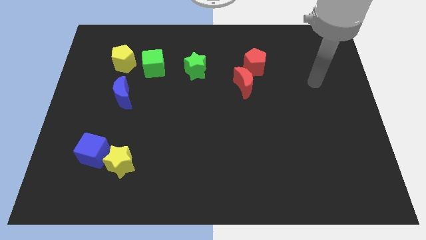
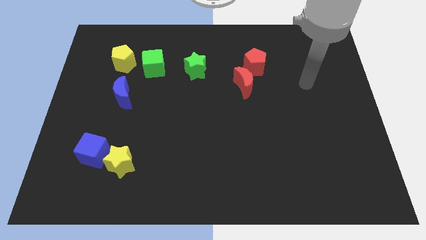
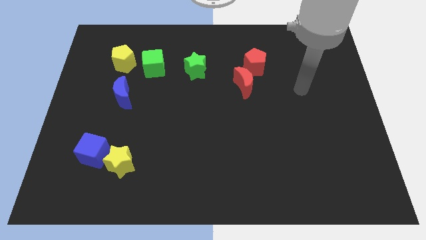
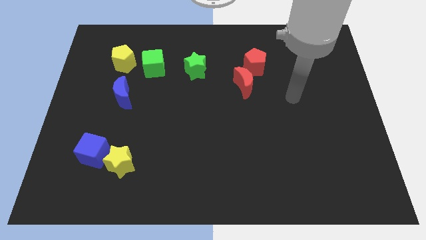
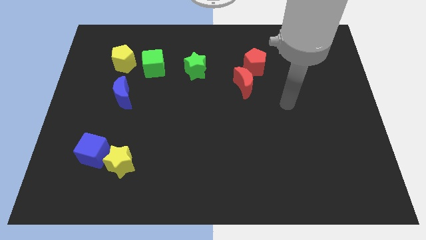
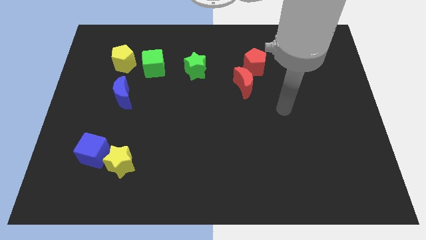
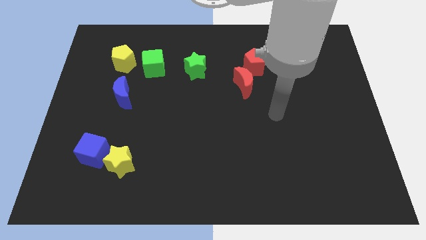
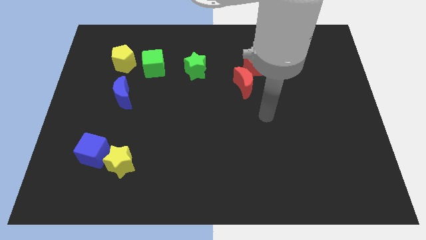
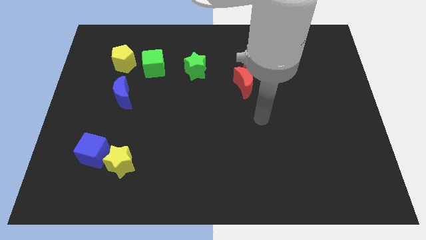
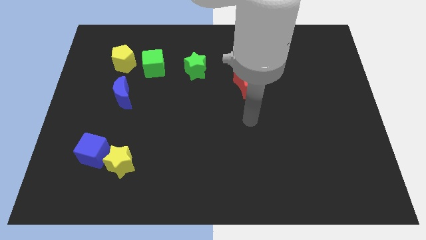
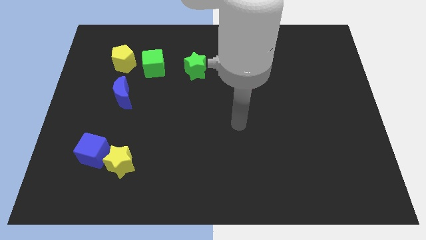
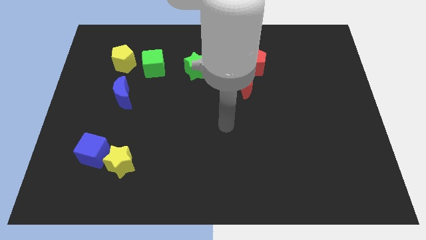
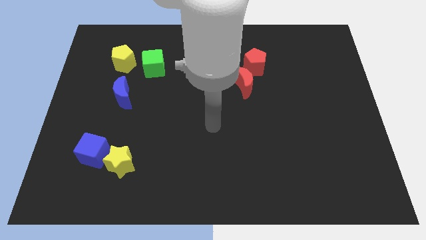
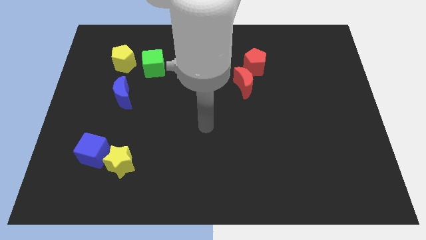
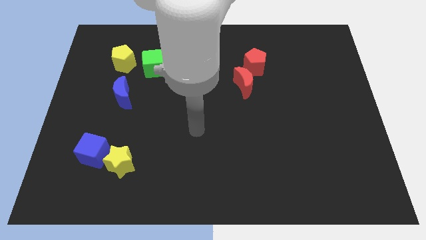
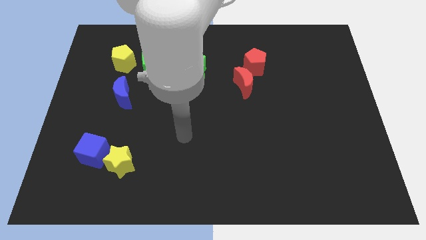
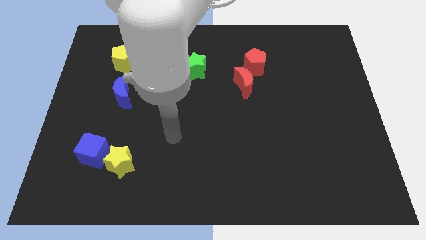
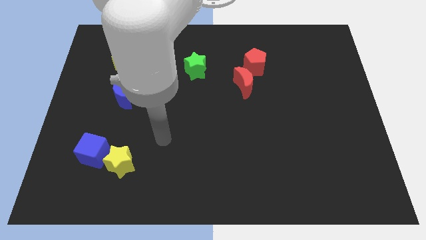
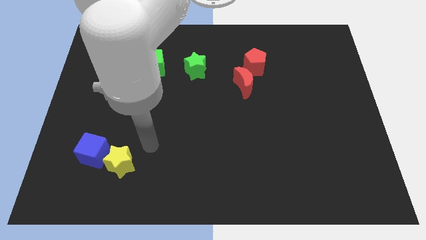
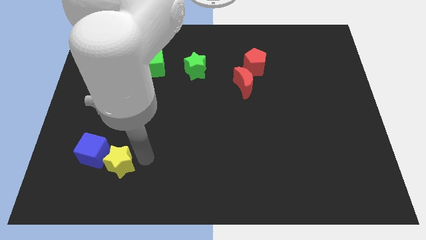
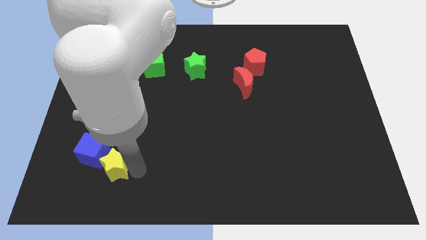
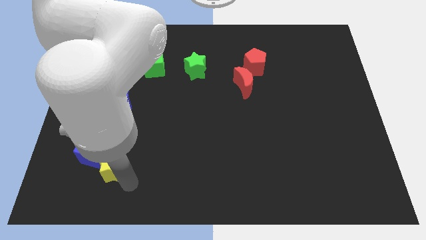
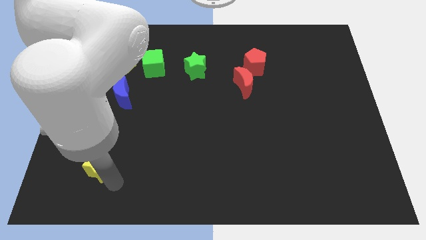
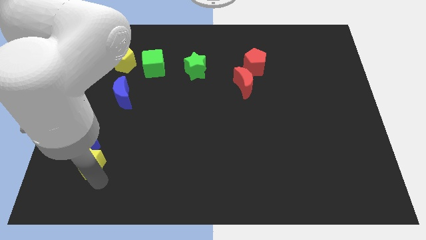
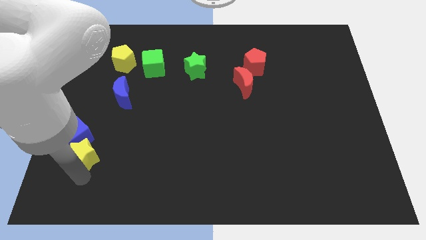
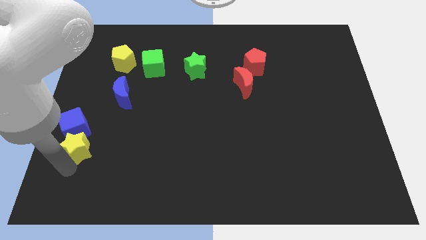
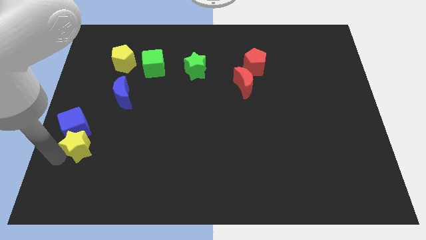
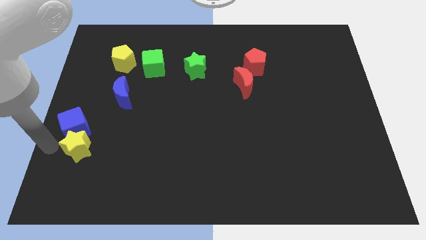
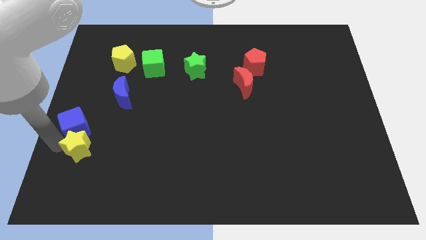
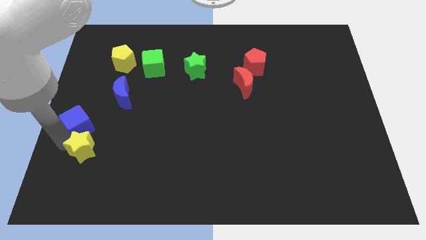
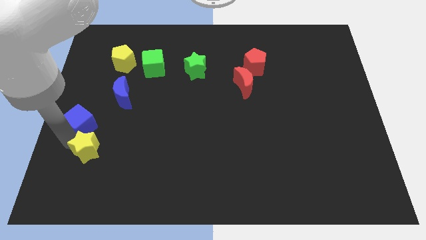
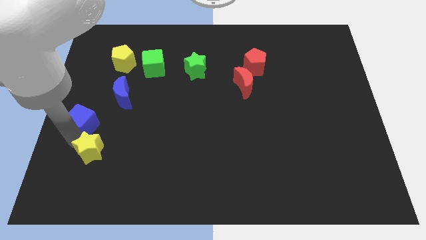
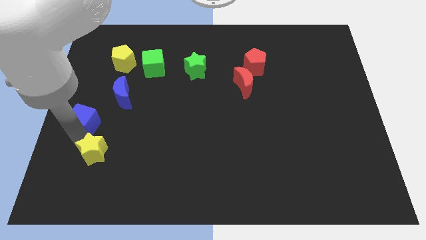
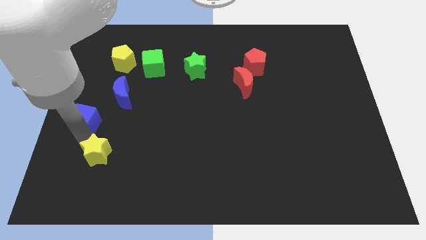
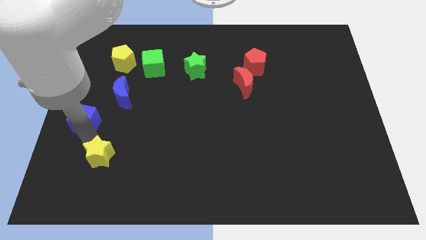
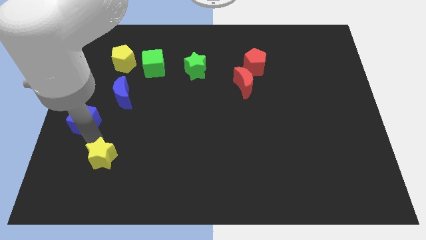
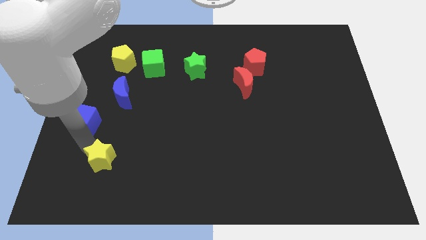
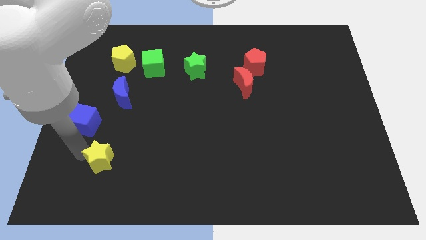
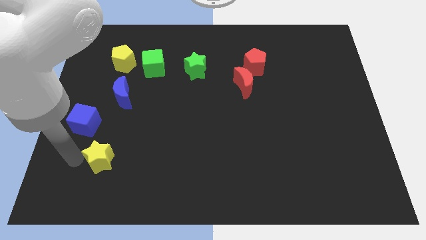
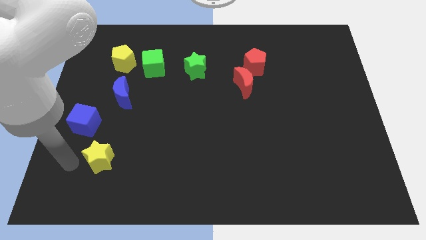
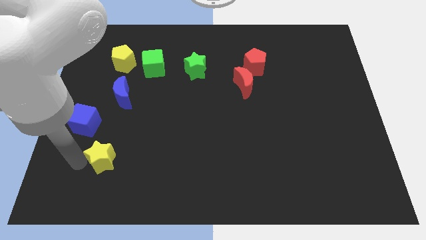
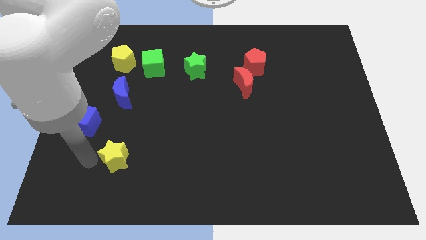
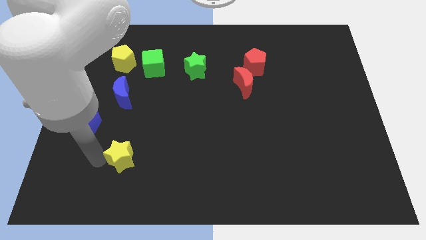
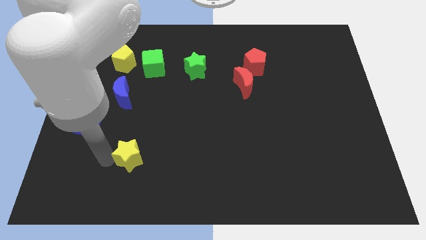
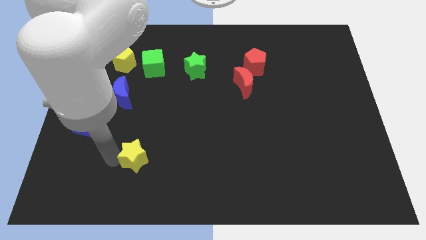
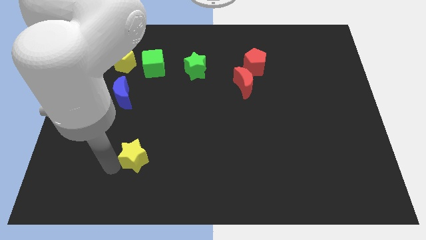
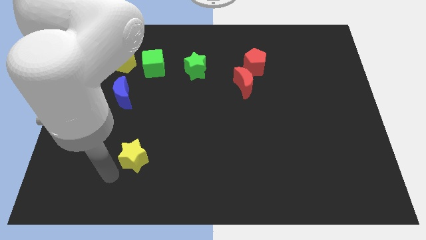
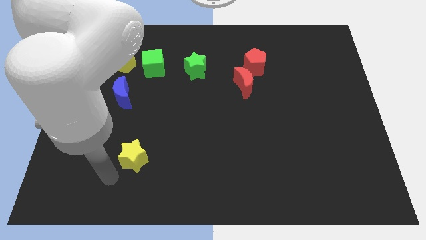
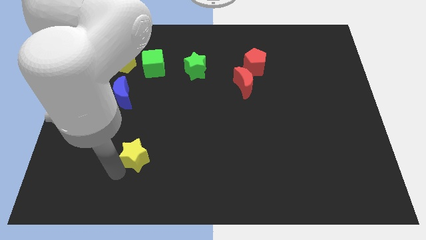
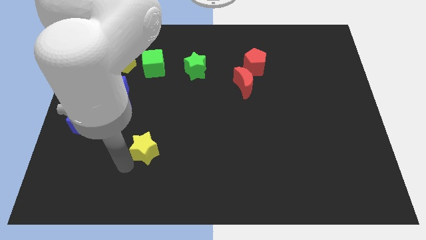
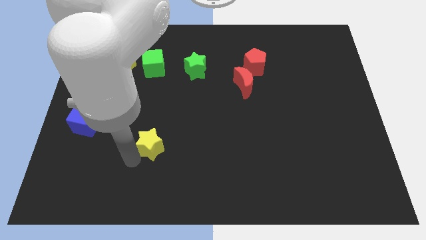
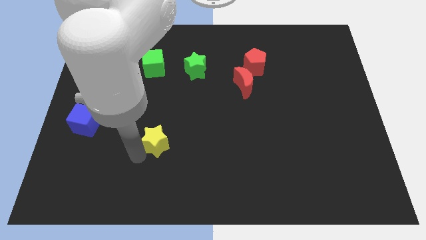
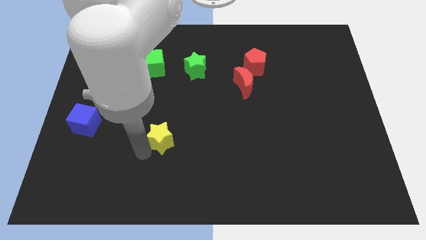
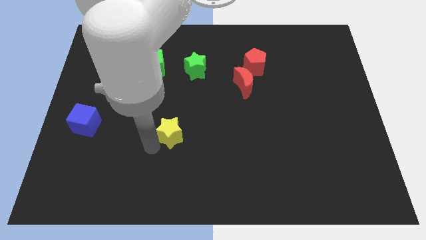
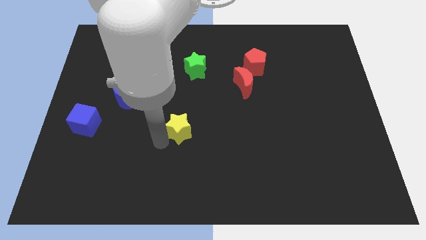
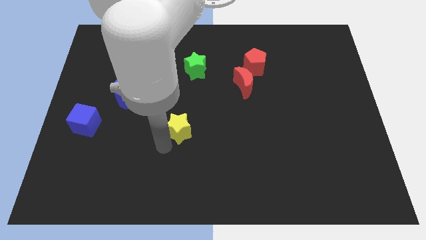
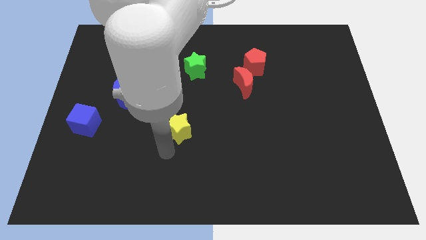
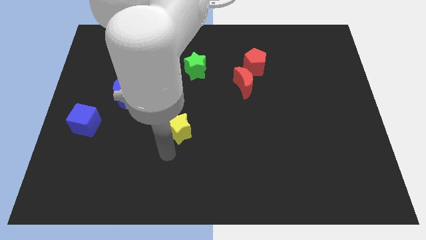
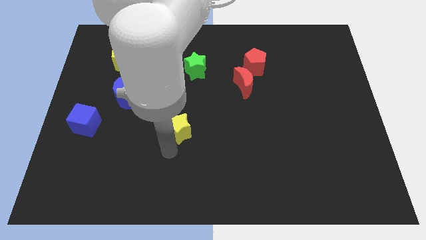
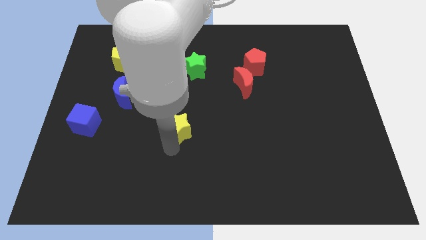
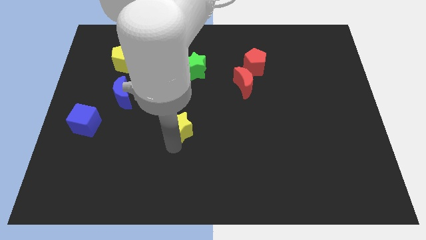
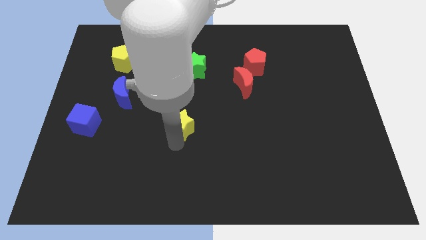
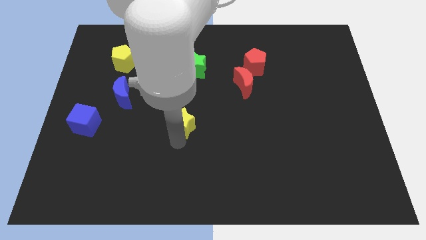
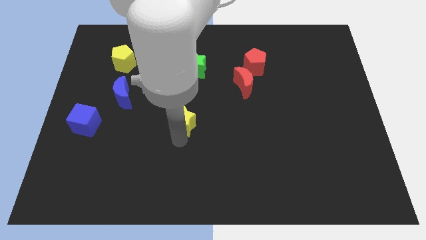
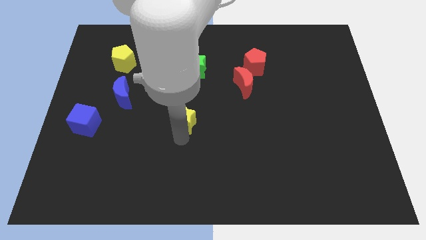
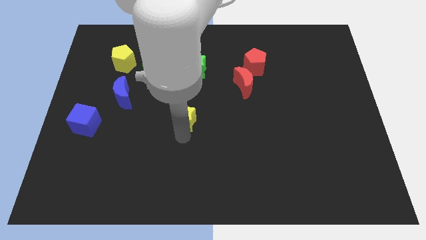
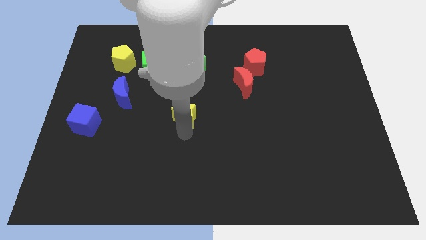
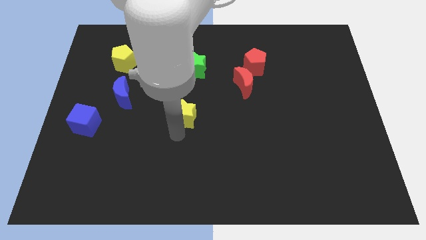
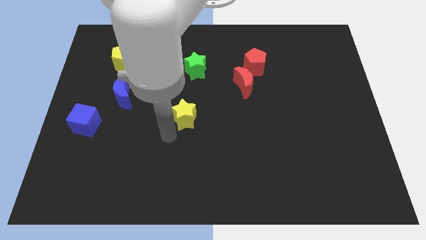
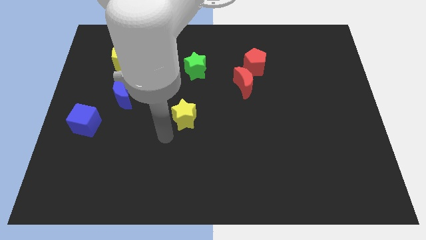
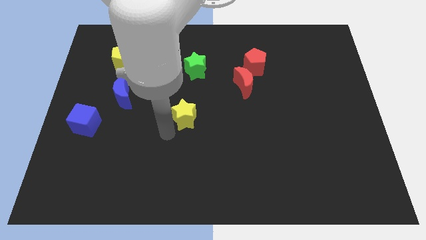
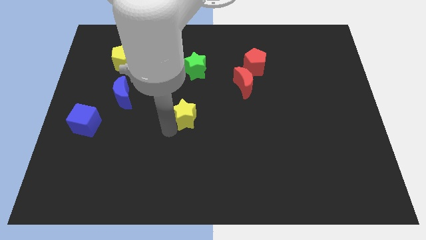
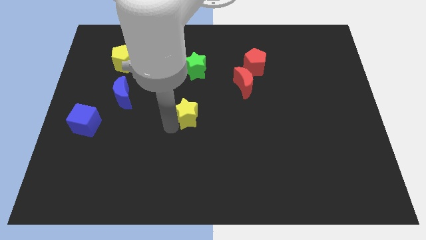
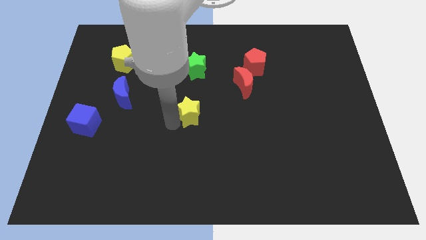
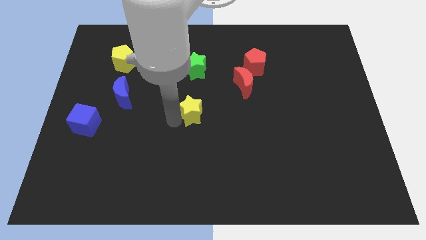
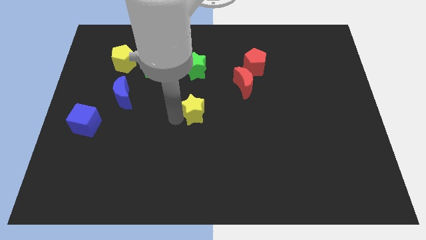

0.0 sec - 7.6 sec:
move the yellow star up and to the right

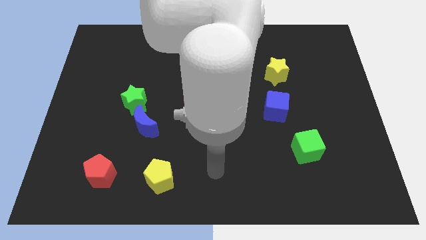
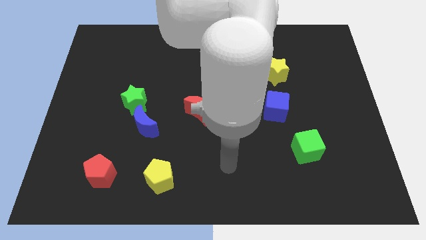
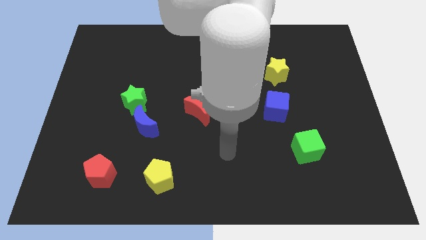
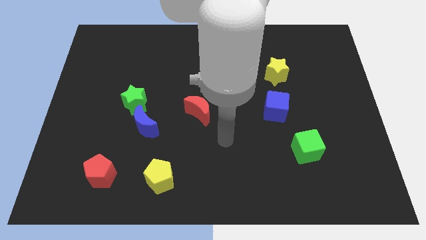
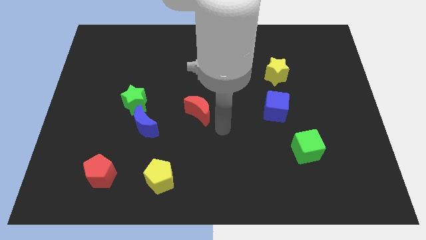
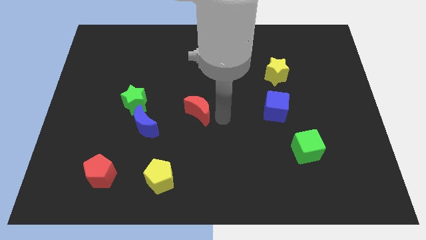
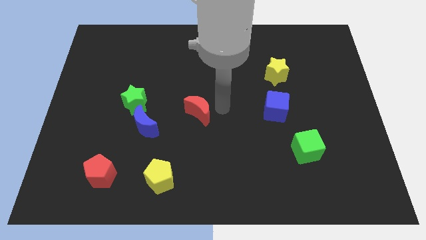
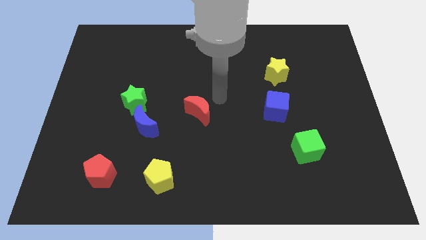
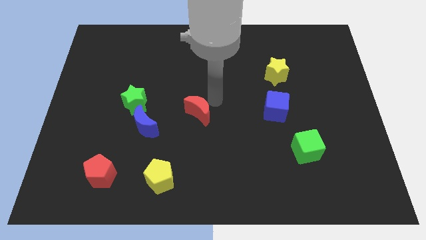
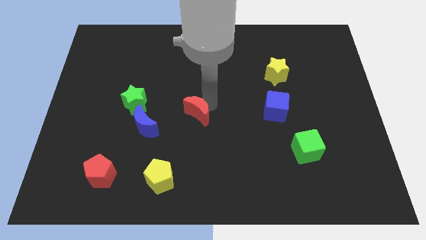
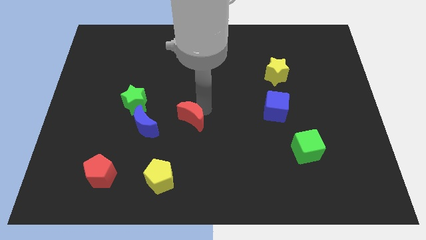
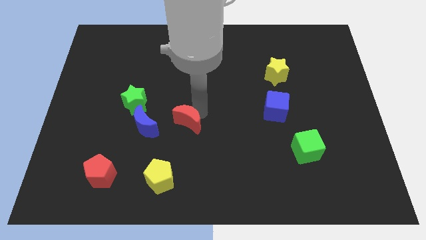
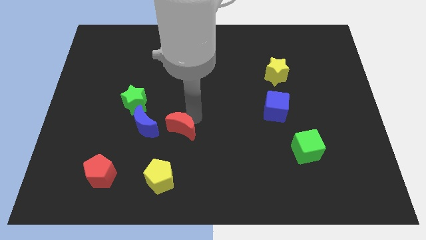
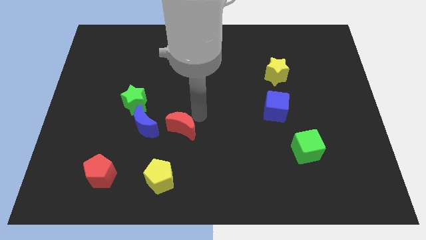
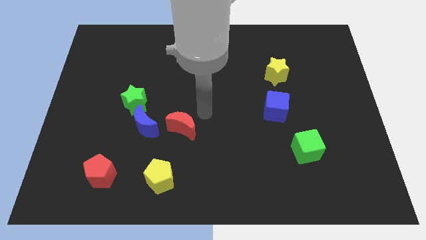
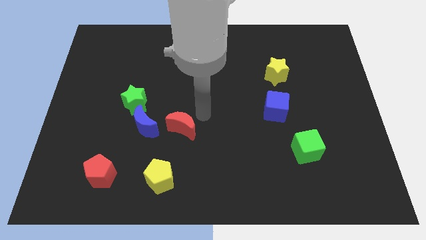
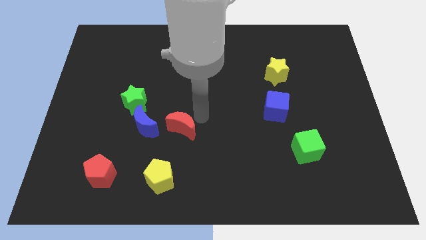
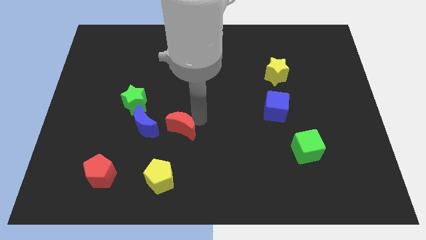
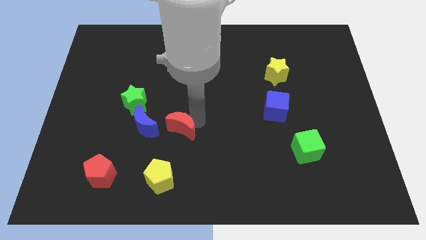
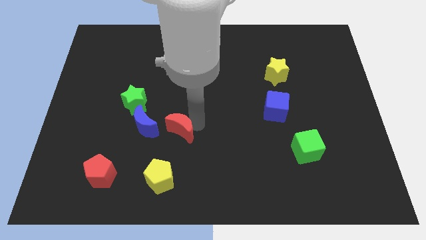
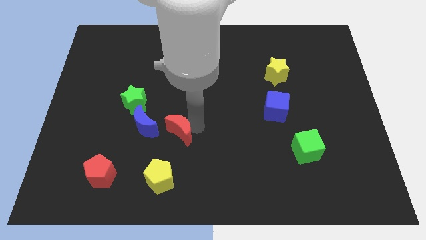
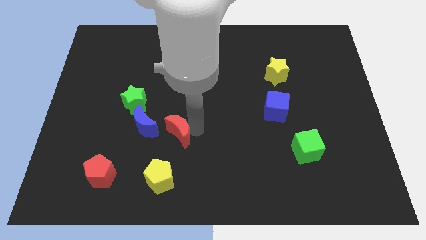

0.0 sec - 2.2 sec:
push the red moon downwards and then to the left slightly
